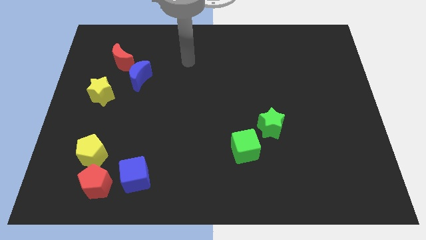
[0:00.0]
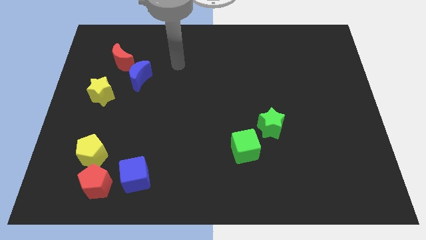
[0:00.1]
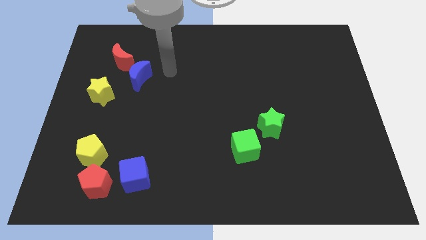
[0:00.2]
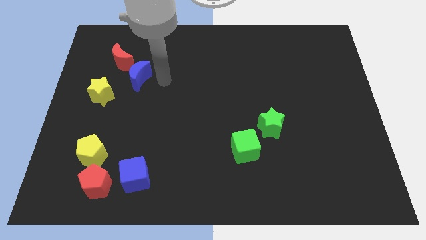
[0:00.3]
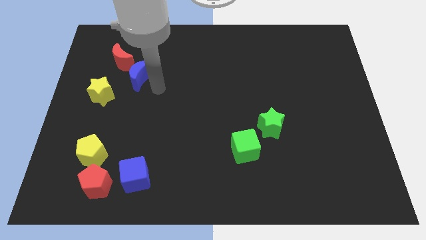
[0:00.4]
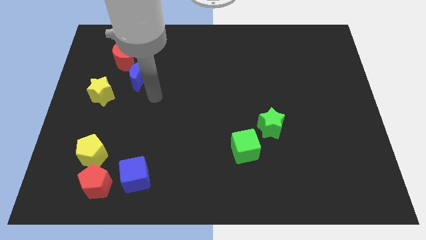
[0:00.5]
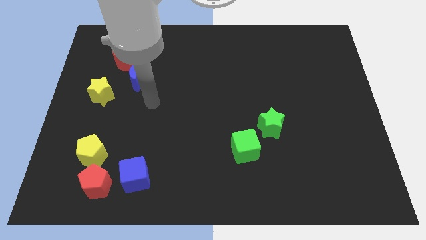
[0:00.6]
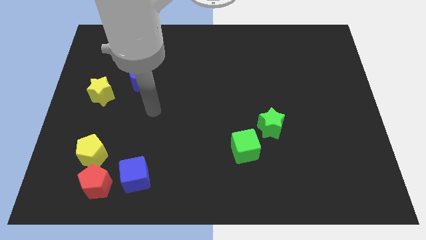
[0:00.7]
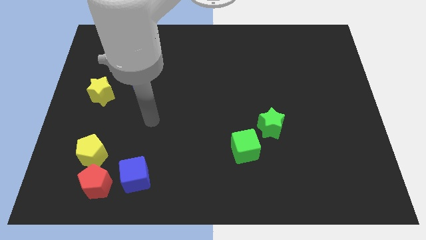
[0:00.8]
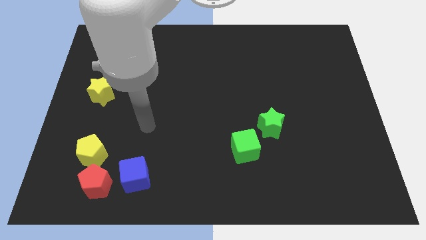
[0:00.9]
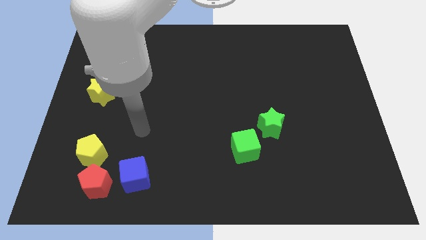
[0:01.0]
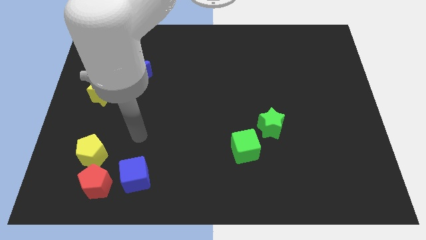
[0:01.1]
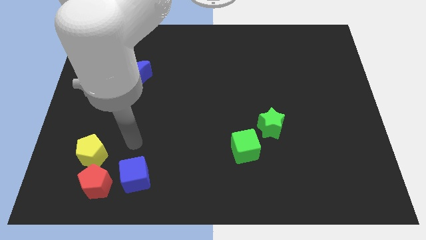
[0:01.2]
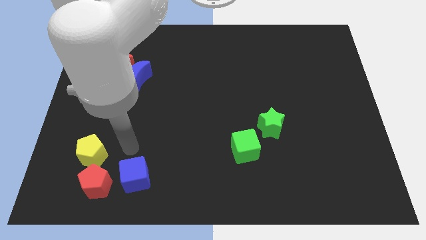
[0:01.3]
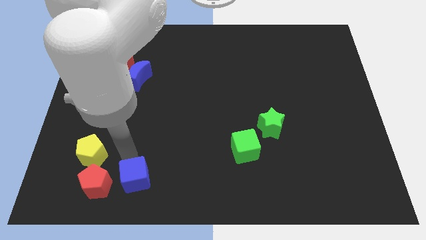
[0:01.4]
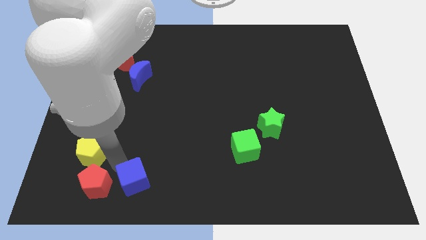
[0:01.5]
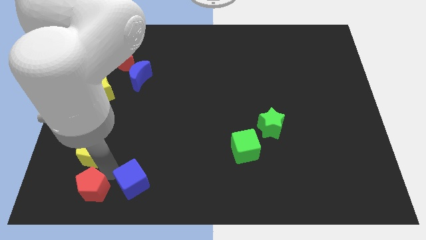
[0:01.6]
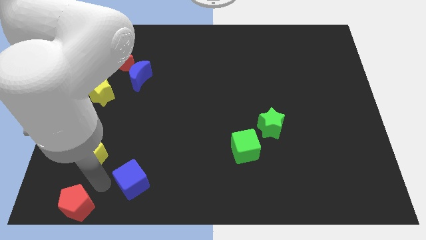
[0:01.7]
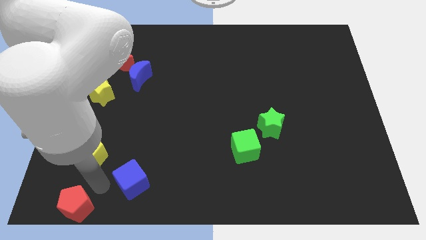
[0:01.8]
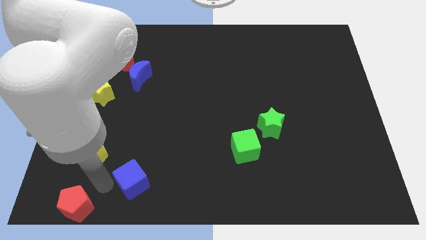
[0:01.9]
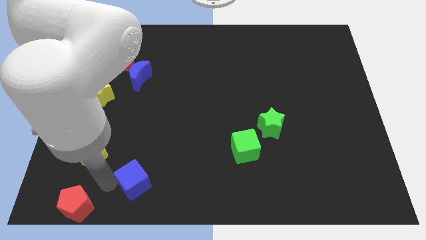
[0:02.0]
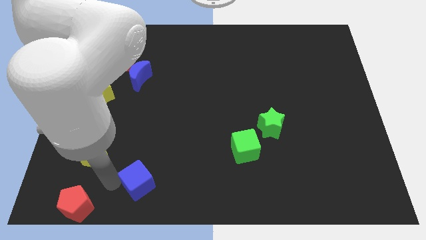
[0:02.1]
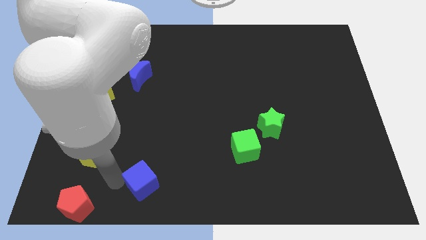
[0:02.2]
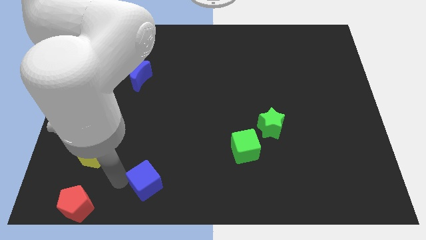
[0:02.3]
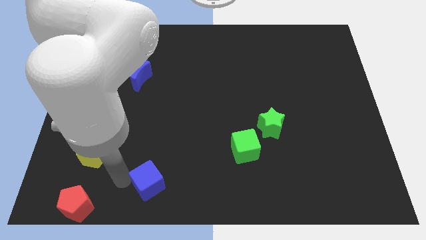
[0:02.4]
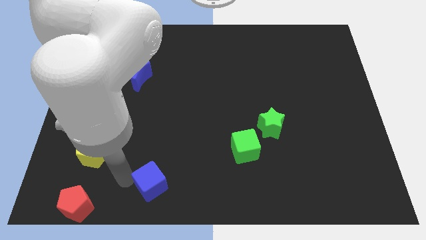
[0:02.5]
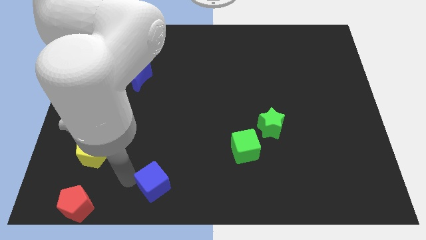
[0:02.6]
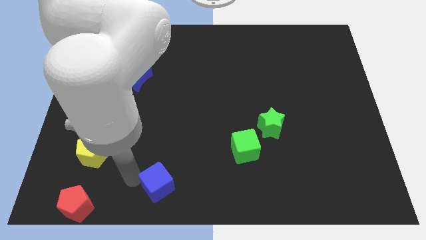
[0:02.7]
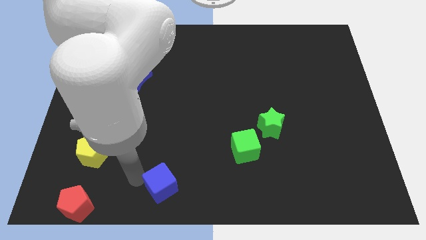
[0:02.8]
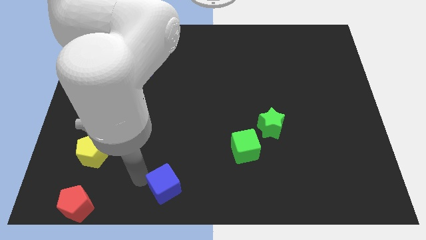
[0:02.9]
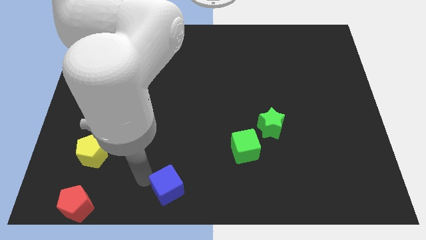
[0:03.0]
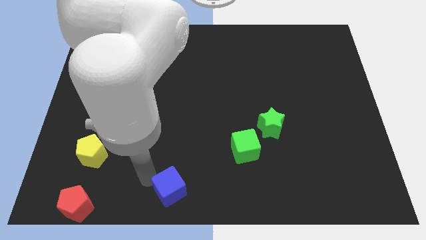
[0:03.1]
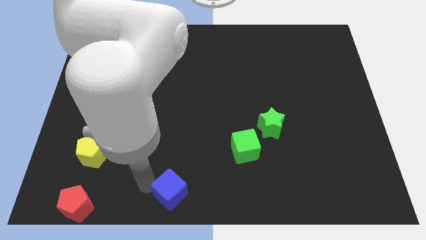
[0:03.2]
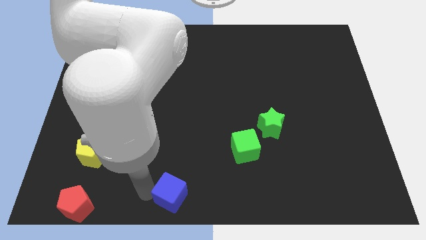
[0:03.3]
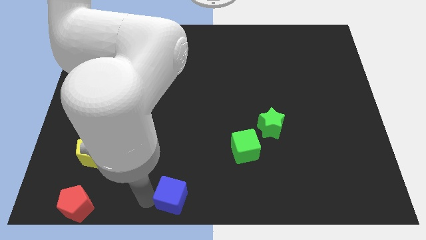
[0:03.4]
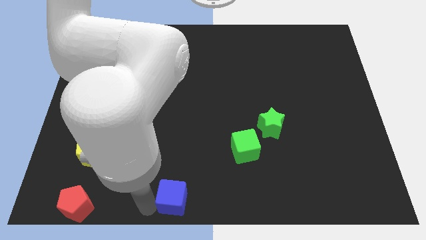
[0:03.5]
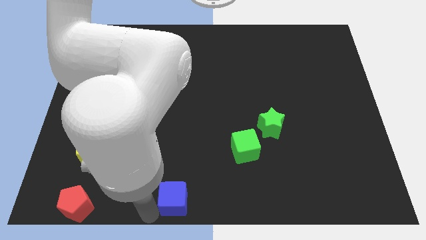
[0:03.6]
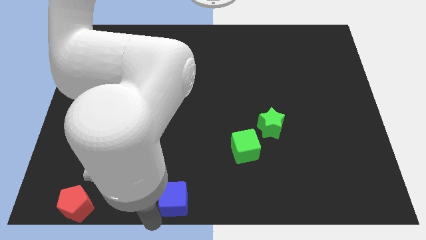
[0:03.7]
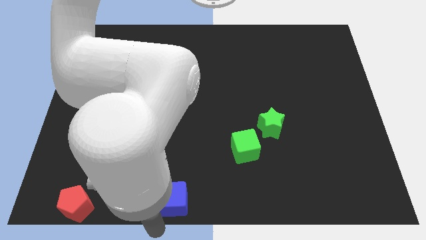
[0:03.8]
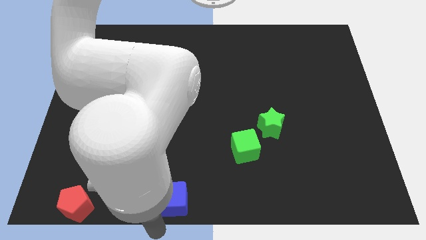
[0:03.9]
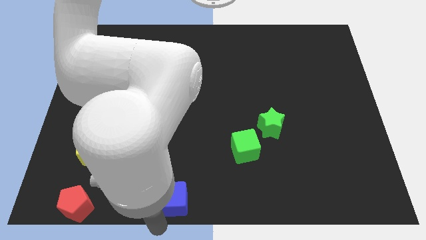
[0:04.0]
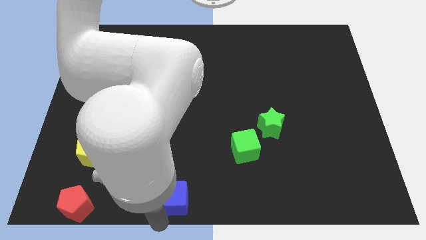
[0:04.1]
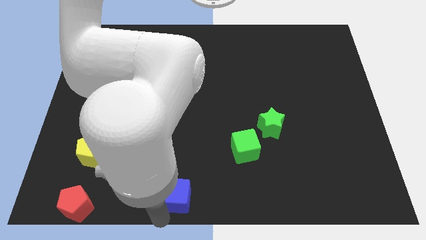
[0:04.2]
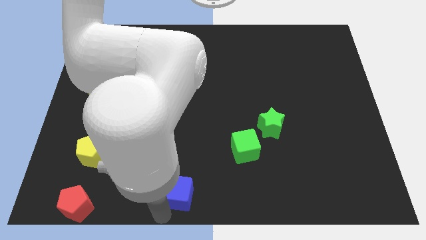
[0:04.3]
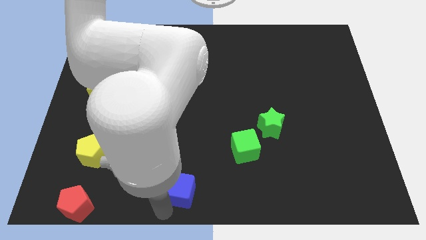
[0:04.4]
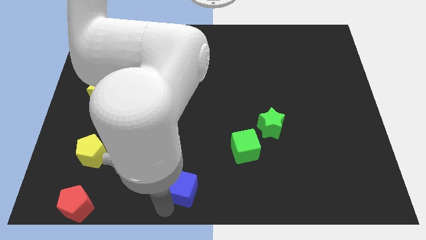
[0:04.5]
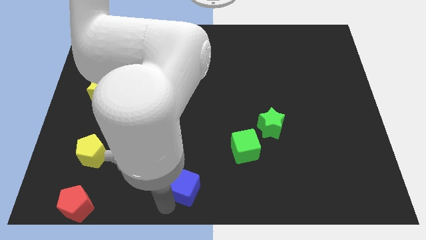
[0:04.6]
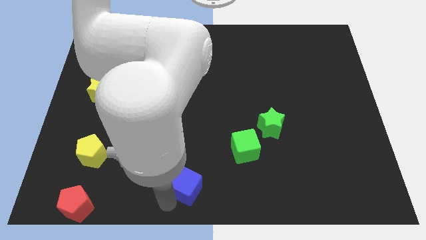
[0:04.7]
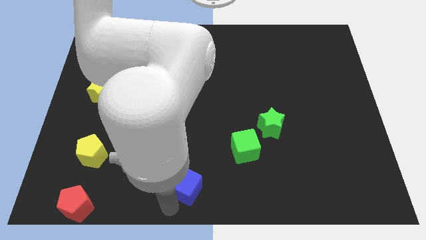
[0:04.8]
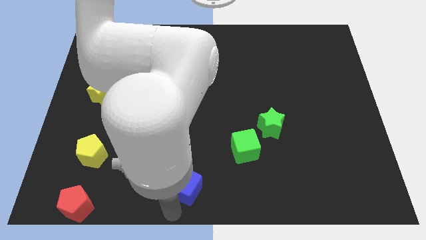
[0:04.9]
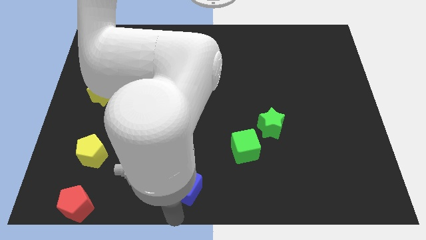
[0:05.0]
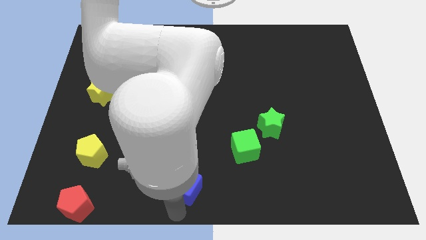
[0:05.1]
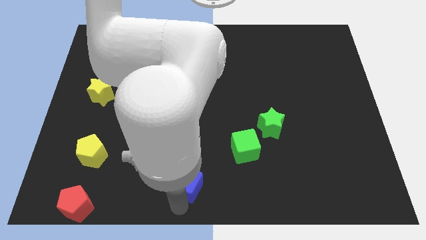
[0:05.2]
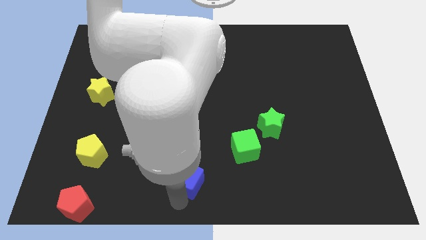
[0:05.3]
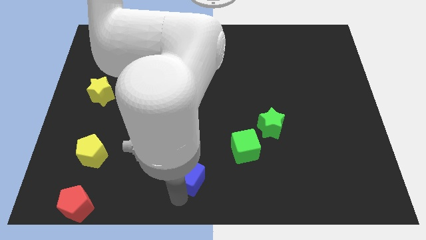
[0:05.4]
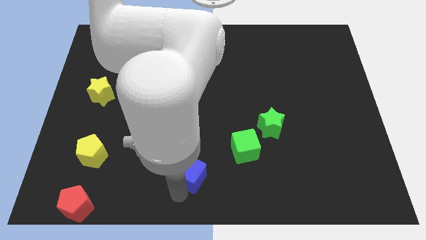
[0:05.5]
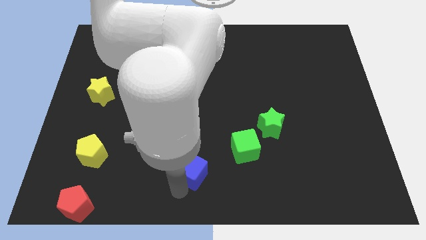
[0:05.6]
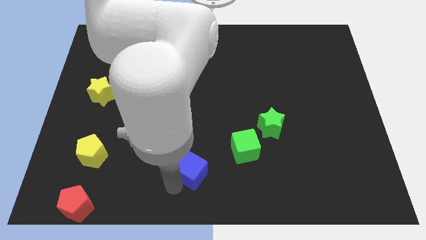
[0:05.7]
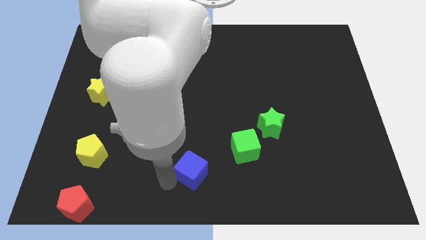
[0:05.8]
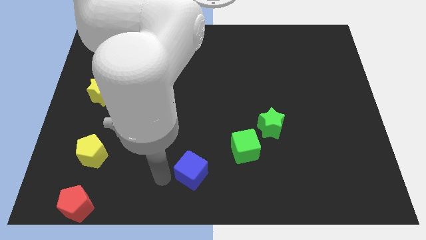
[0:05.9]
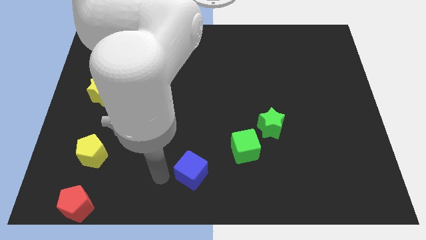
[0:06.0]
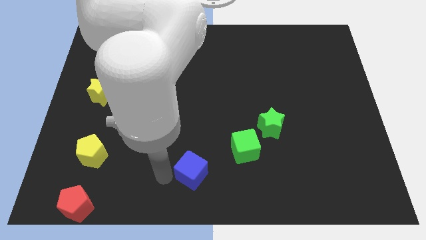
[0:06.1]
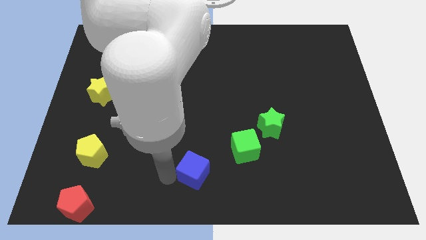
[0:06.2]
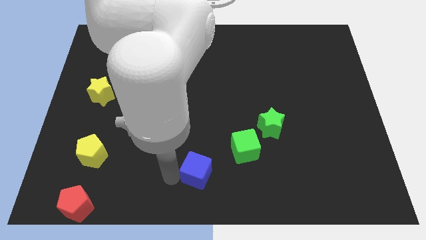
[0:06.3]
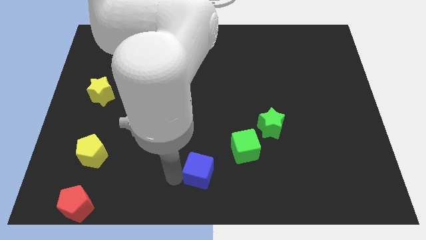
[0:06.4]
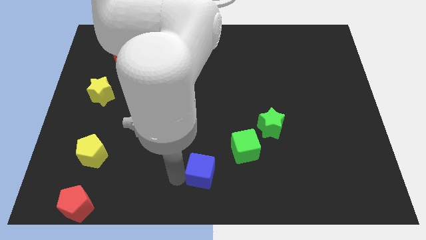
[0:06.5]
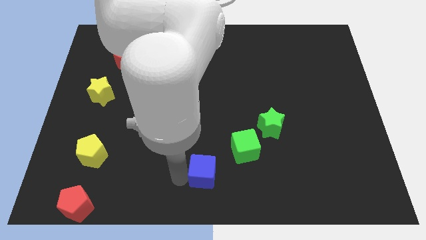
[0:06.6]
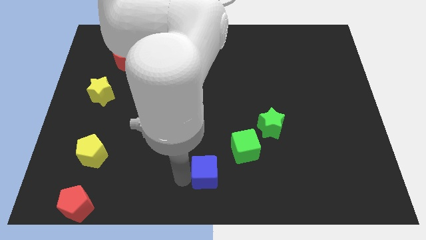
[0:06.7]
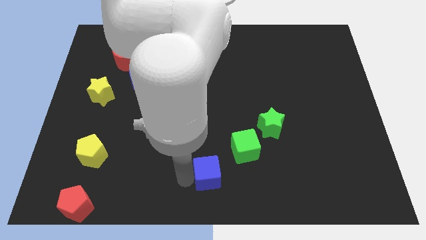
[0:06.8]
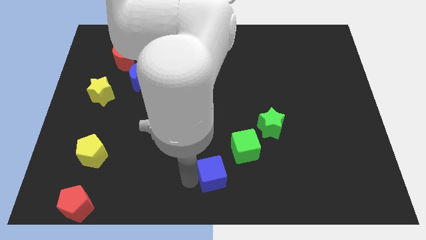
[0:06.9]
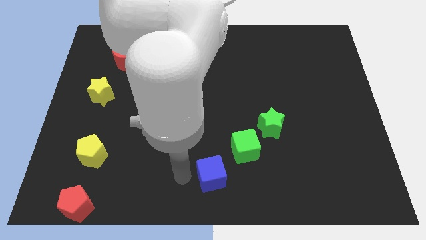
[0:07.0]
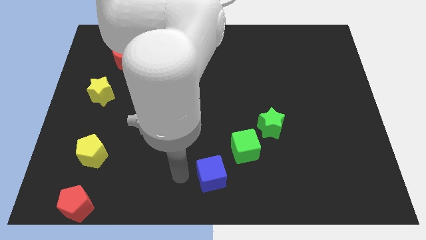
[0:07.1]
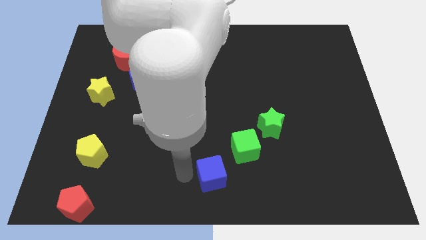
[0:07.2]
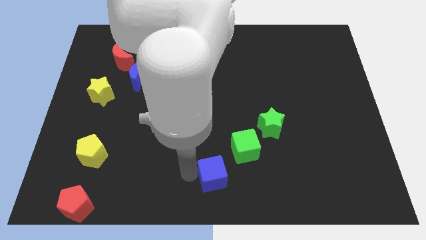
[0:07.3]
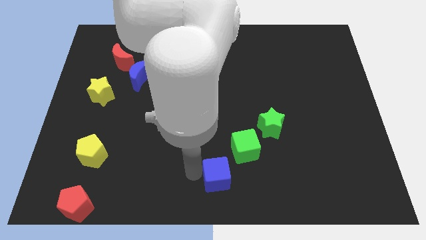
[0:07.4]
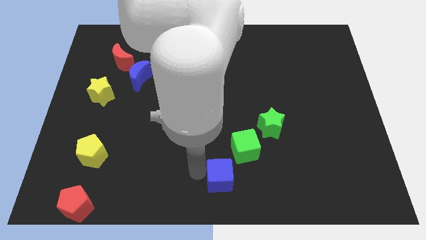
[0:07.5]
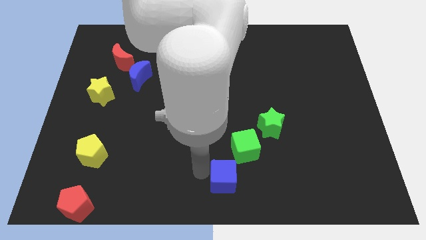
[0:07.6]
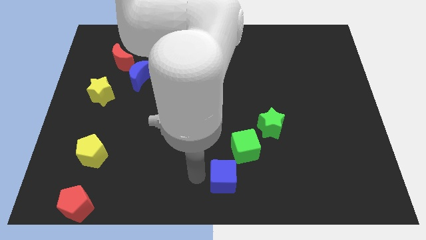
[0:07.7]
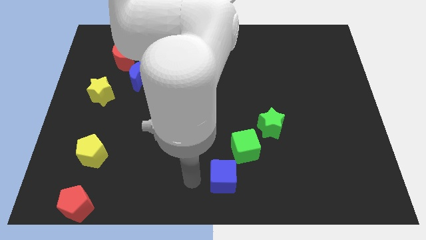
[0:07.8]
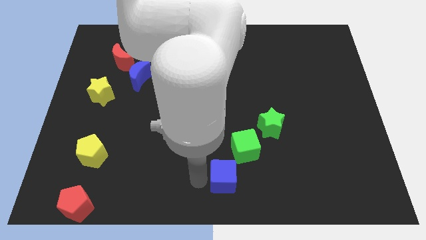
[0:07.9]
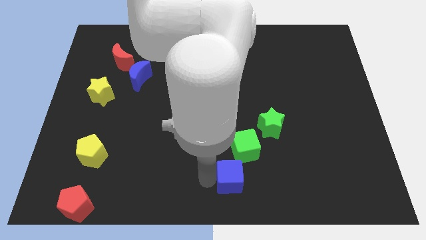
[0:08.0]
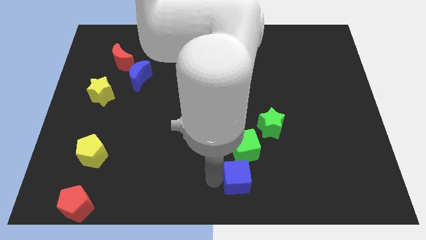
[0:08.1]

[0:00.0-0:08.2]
move the blue cube to the right
